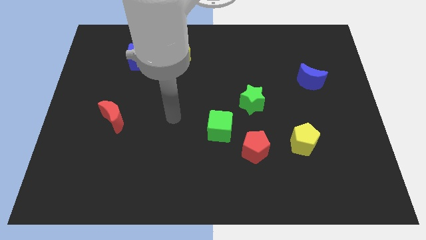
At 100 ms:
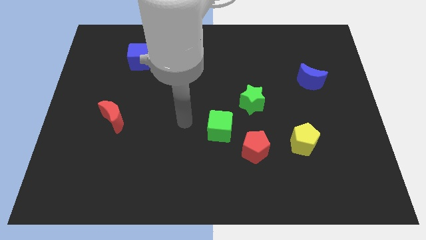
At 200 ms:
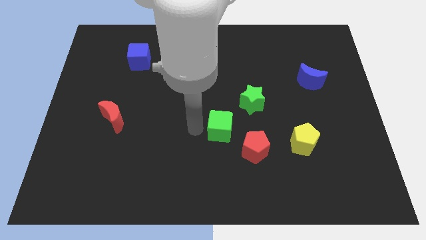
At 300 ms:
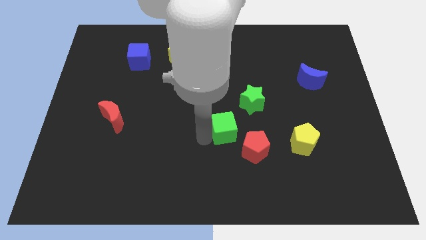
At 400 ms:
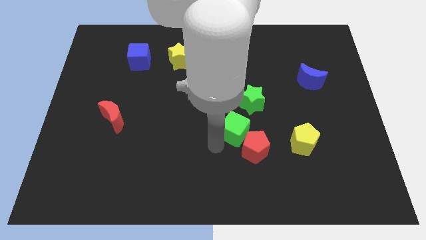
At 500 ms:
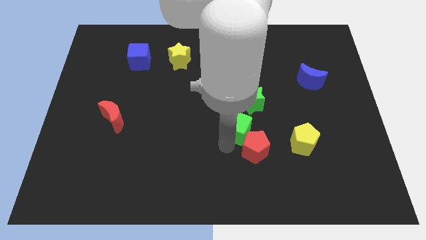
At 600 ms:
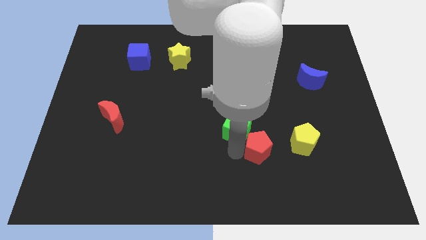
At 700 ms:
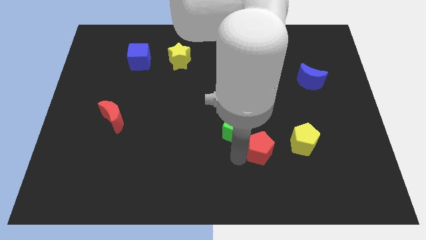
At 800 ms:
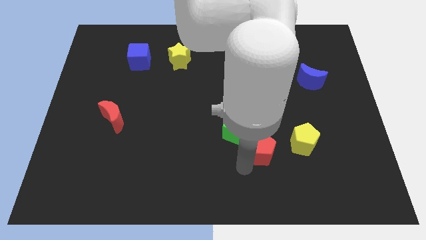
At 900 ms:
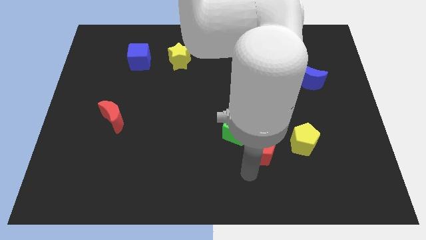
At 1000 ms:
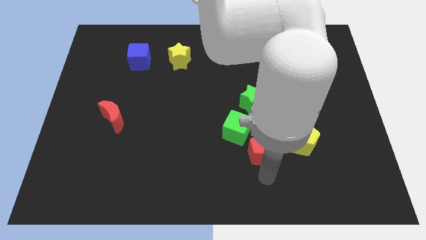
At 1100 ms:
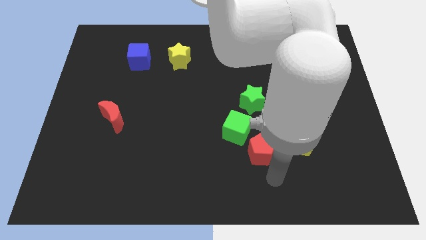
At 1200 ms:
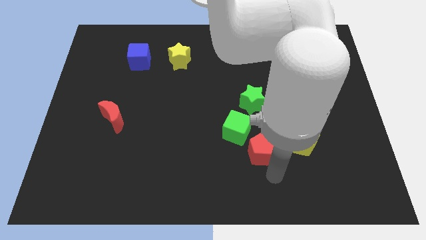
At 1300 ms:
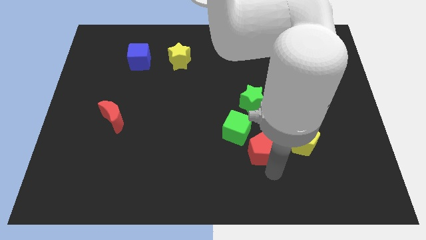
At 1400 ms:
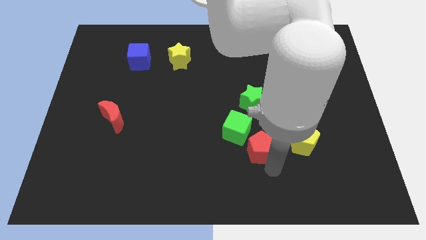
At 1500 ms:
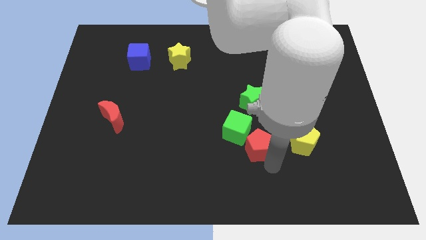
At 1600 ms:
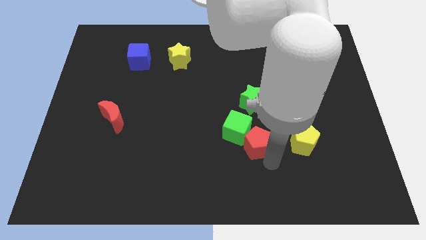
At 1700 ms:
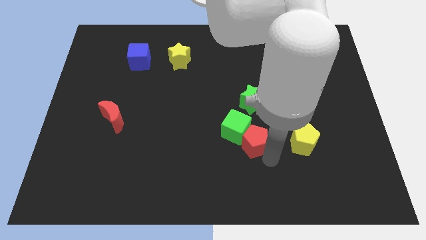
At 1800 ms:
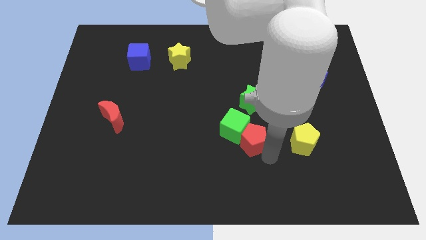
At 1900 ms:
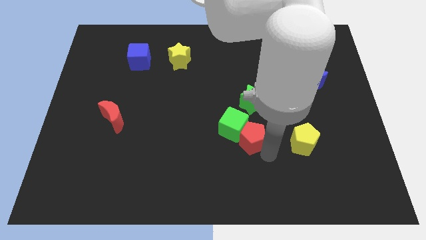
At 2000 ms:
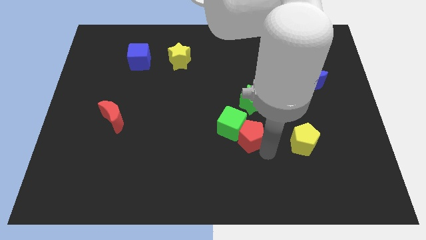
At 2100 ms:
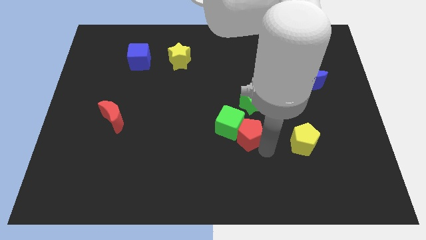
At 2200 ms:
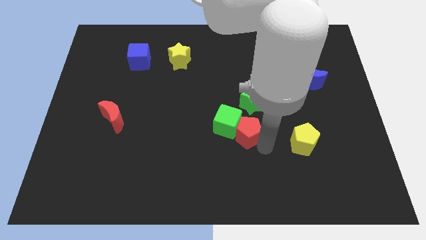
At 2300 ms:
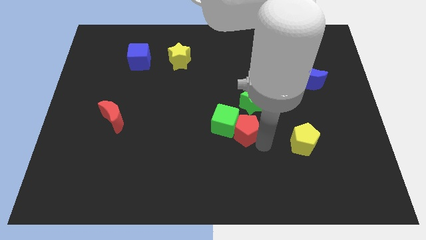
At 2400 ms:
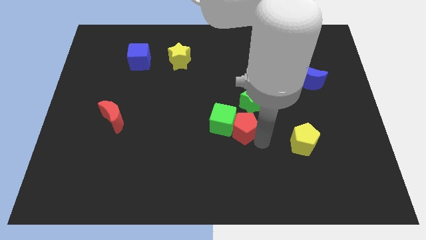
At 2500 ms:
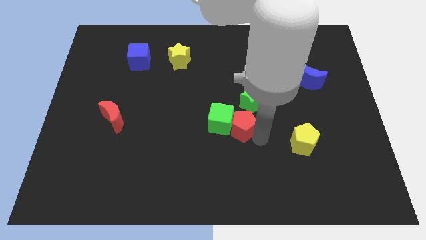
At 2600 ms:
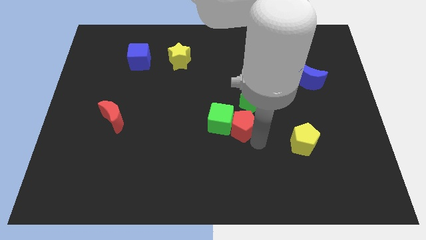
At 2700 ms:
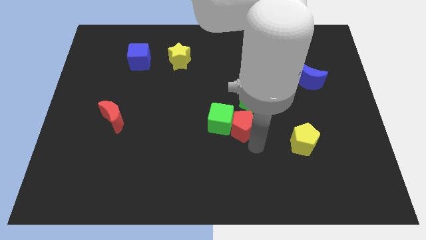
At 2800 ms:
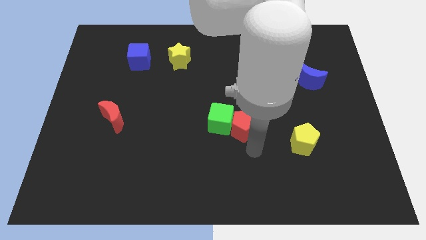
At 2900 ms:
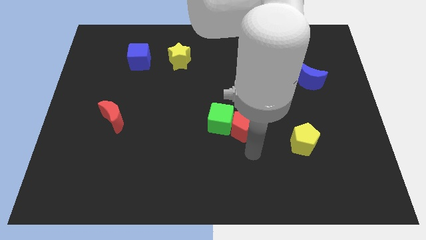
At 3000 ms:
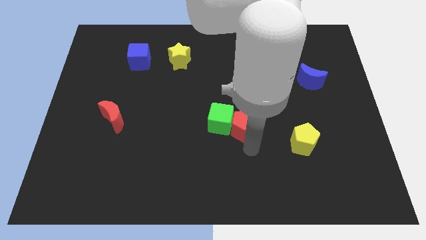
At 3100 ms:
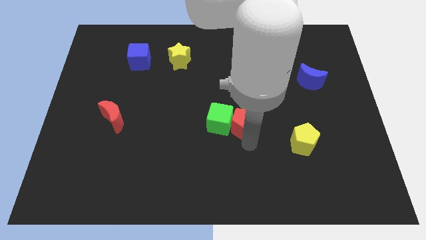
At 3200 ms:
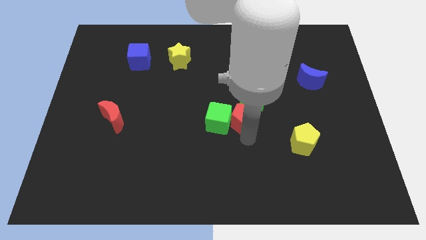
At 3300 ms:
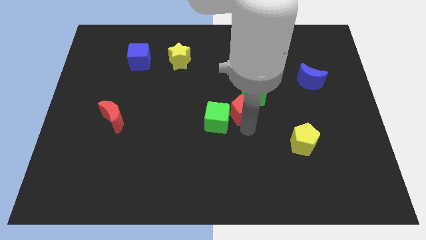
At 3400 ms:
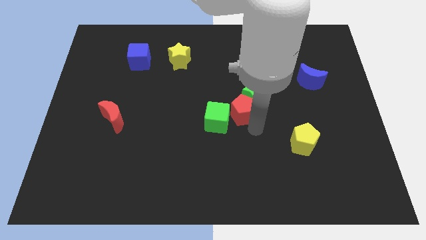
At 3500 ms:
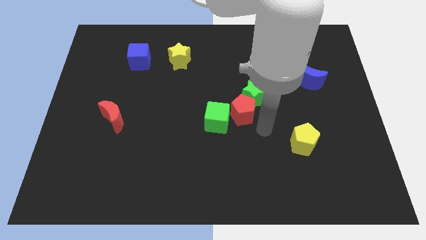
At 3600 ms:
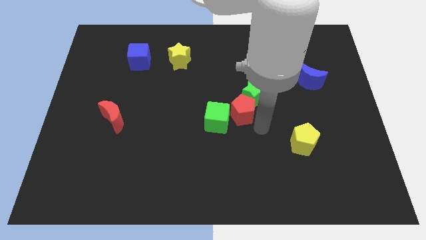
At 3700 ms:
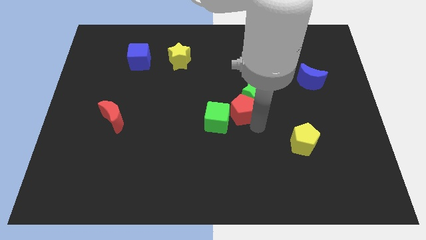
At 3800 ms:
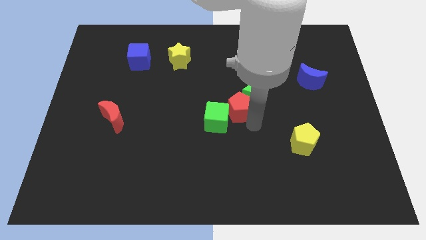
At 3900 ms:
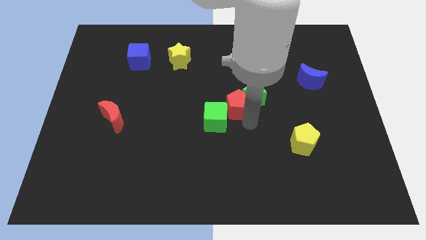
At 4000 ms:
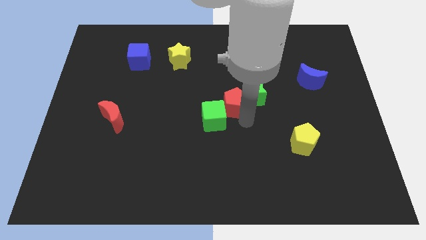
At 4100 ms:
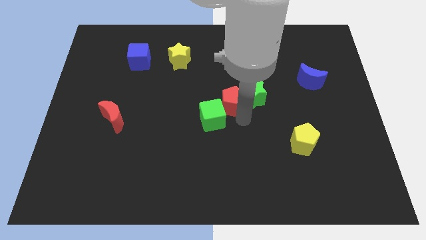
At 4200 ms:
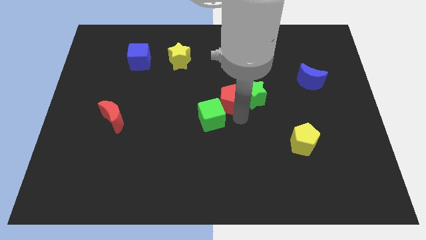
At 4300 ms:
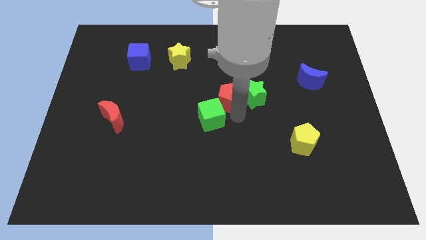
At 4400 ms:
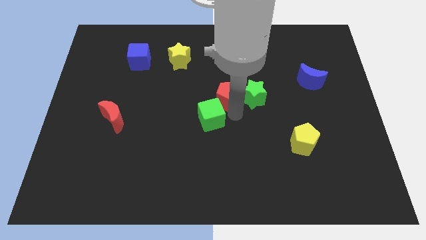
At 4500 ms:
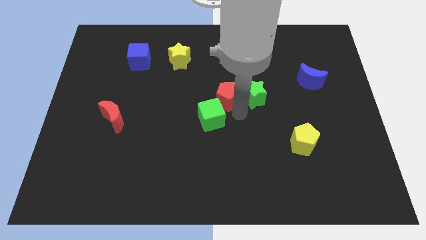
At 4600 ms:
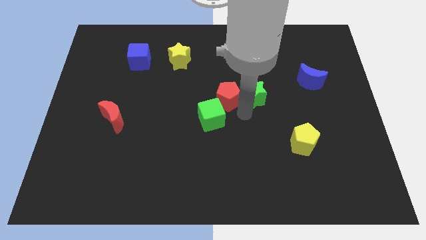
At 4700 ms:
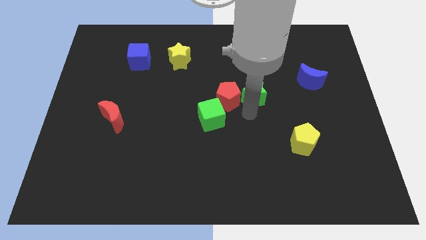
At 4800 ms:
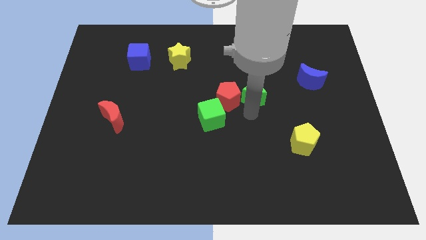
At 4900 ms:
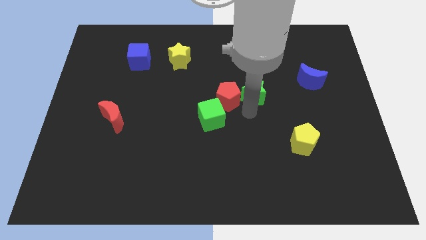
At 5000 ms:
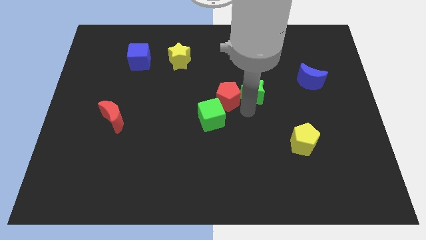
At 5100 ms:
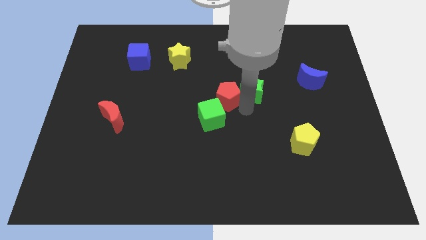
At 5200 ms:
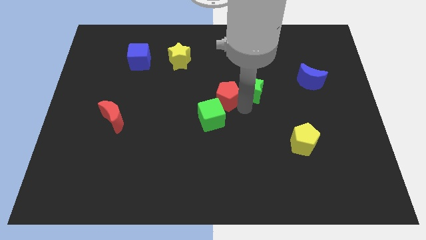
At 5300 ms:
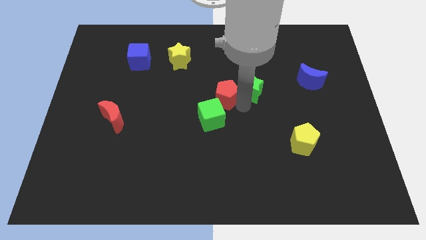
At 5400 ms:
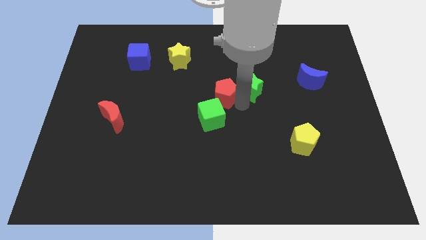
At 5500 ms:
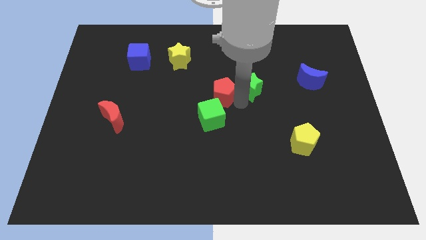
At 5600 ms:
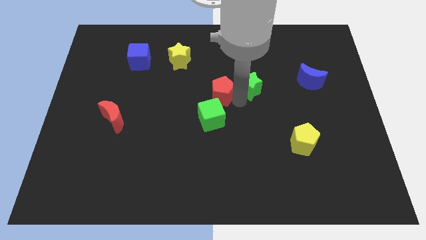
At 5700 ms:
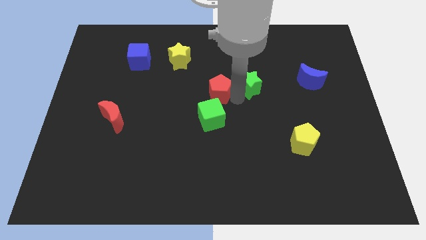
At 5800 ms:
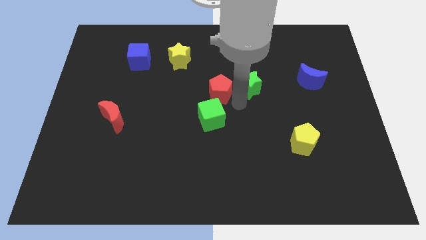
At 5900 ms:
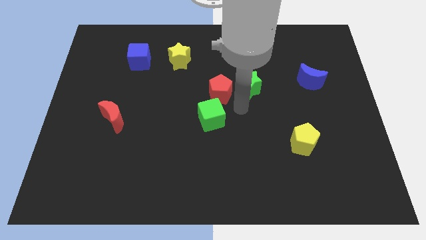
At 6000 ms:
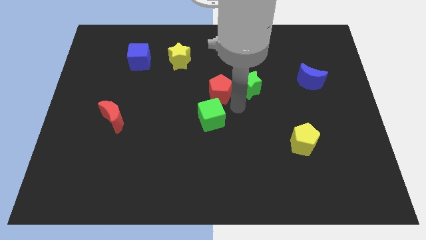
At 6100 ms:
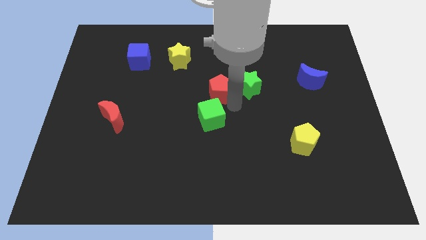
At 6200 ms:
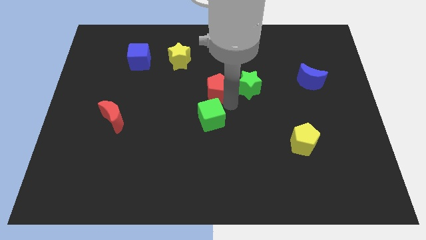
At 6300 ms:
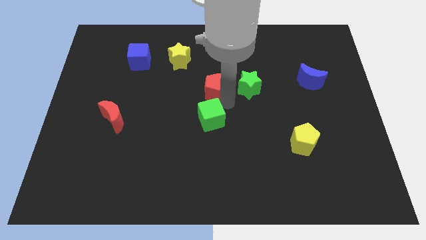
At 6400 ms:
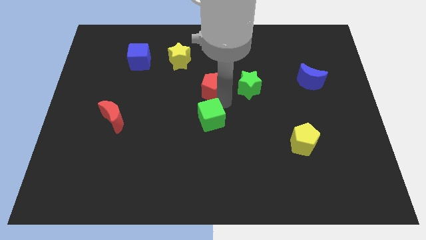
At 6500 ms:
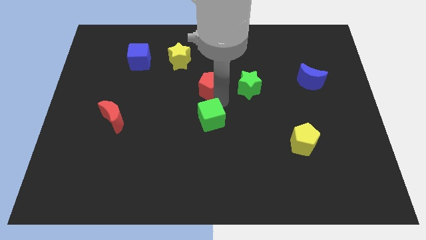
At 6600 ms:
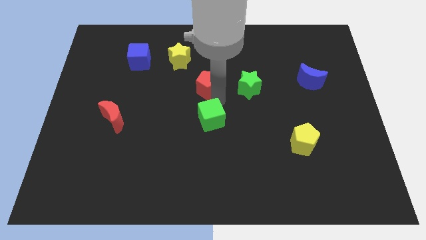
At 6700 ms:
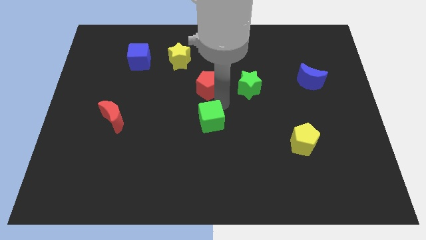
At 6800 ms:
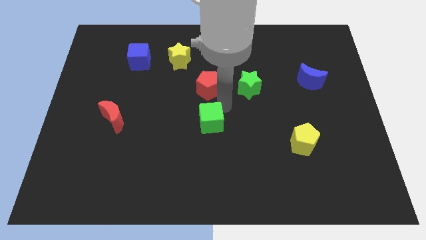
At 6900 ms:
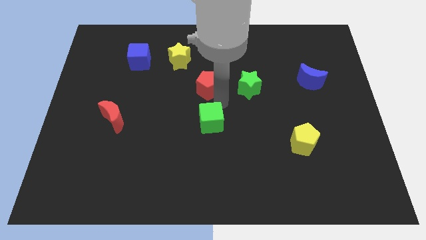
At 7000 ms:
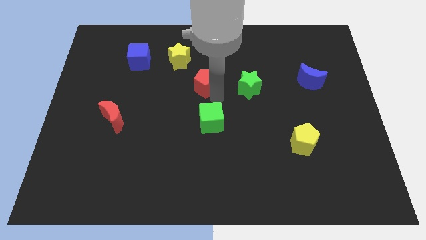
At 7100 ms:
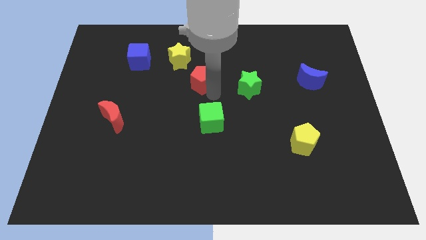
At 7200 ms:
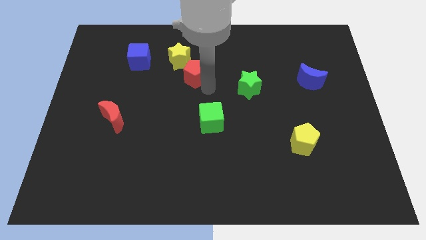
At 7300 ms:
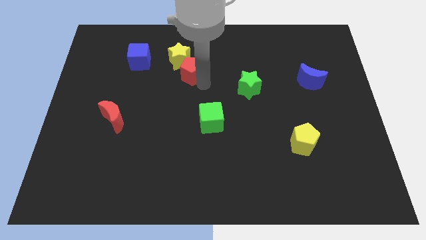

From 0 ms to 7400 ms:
push the red pentagon close to the yellow star
